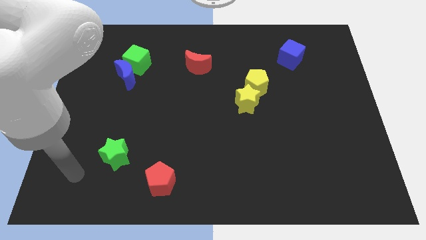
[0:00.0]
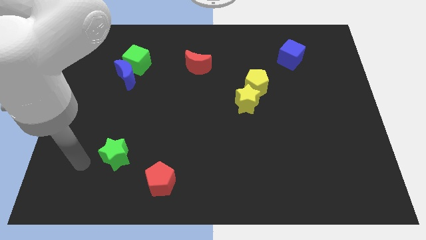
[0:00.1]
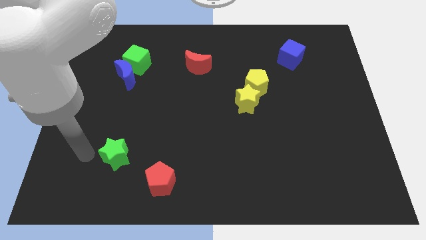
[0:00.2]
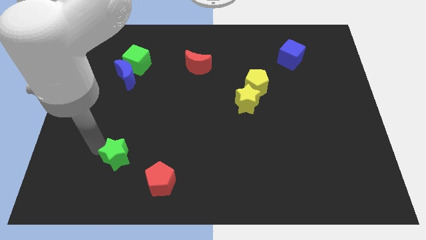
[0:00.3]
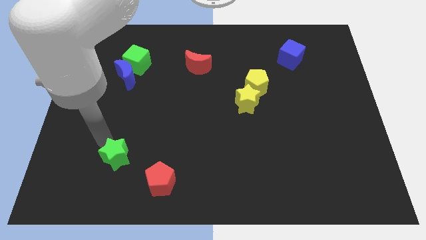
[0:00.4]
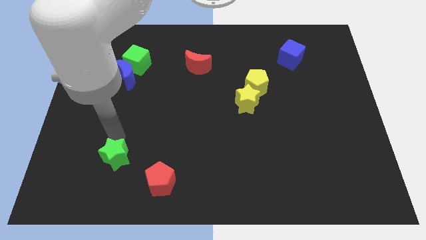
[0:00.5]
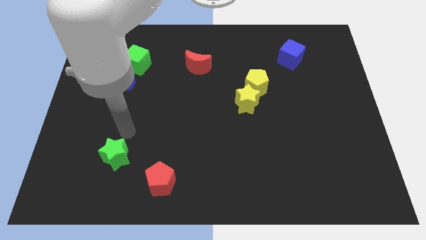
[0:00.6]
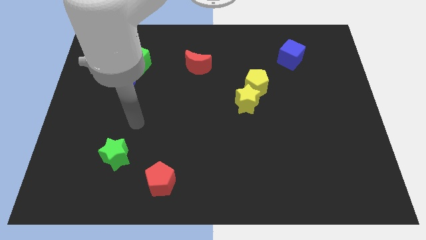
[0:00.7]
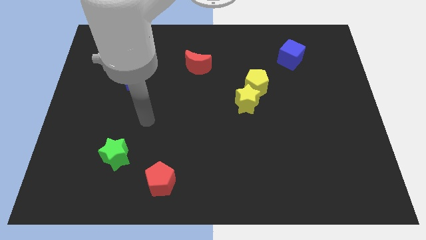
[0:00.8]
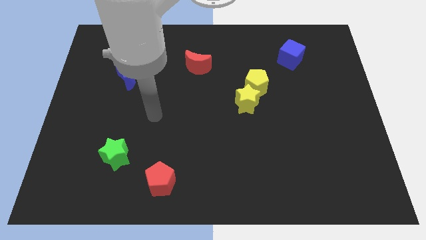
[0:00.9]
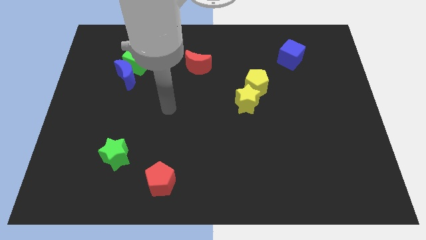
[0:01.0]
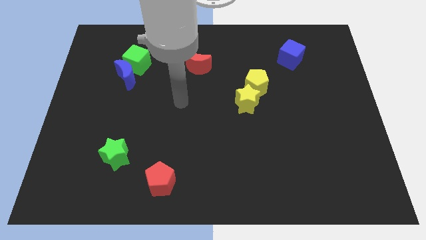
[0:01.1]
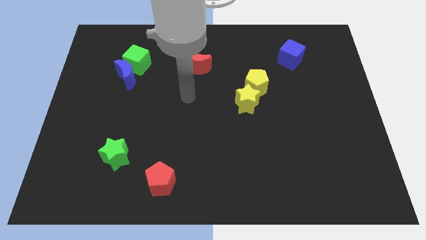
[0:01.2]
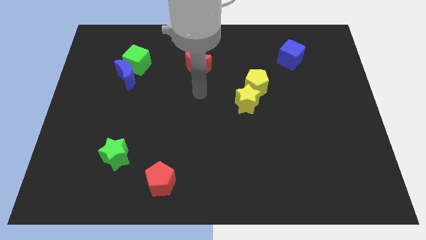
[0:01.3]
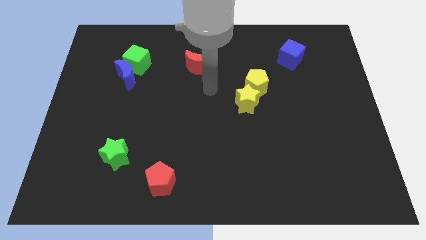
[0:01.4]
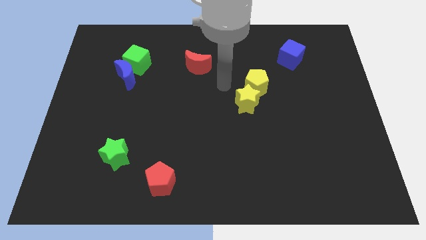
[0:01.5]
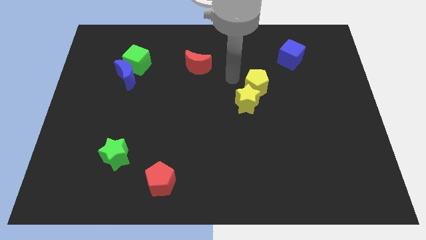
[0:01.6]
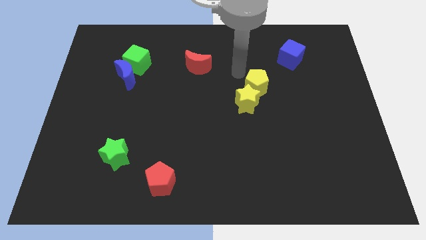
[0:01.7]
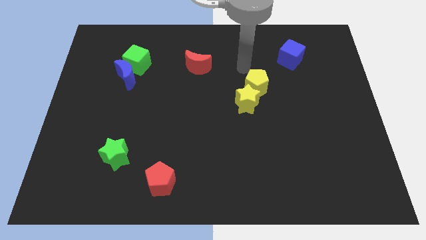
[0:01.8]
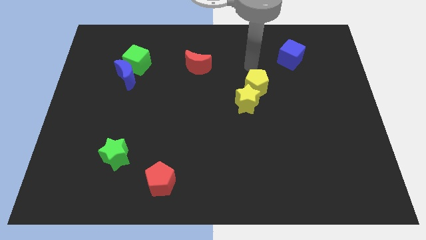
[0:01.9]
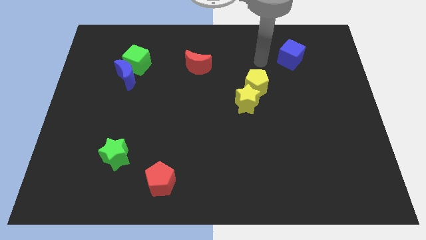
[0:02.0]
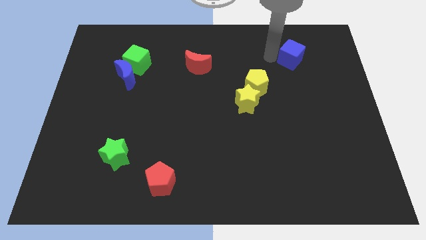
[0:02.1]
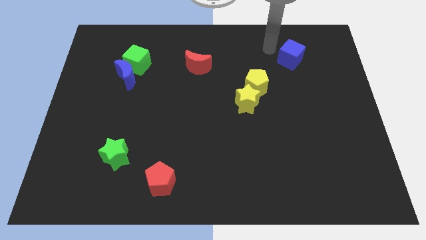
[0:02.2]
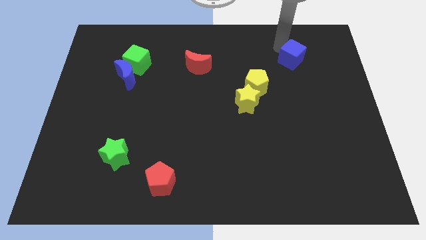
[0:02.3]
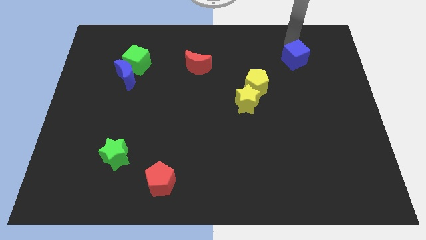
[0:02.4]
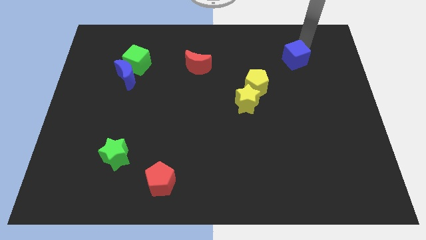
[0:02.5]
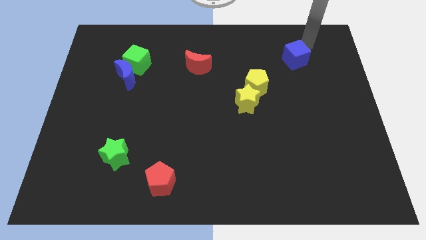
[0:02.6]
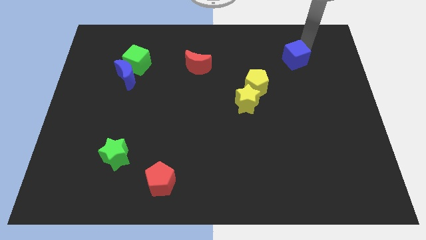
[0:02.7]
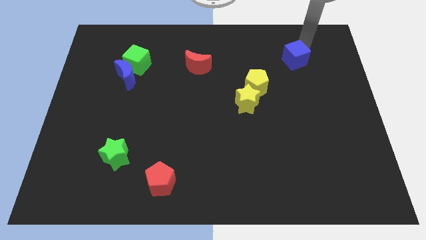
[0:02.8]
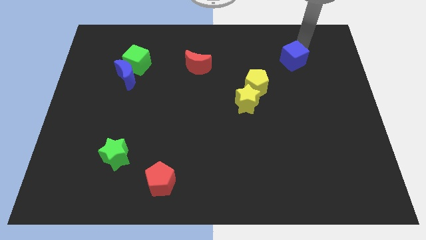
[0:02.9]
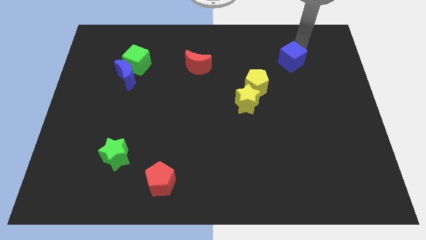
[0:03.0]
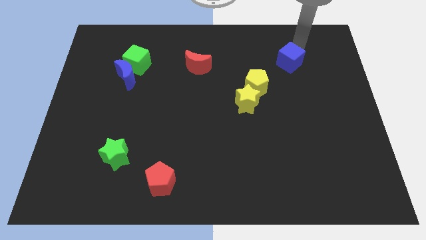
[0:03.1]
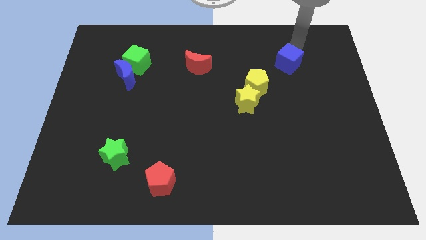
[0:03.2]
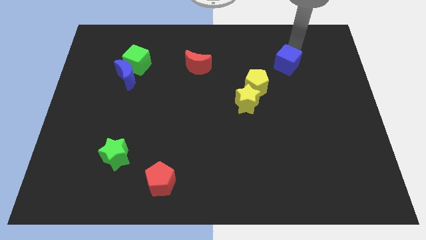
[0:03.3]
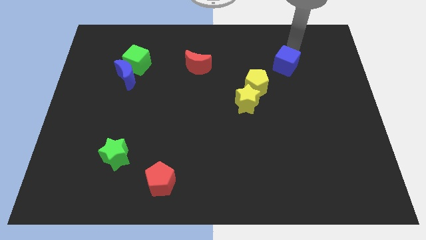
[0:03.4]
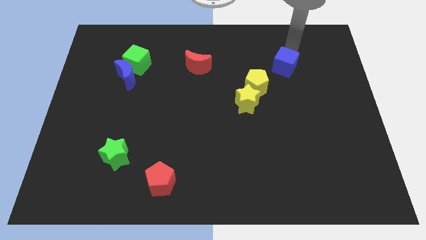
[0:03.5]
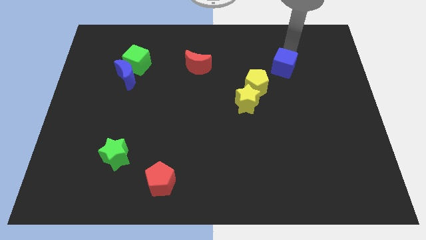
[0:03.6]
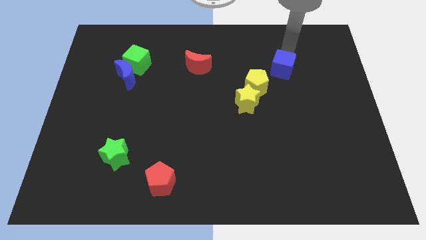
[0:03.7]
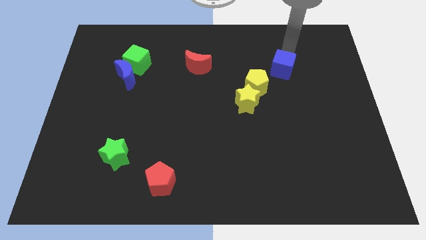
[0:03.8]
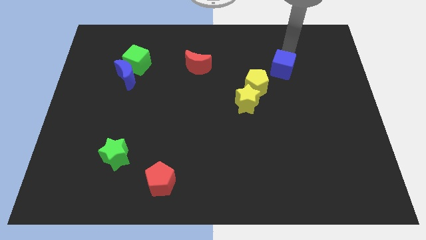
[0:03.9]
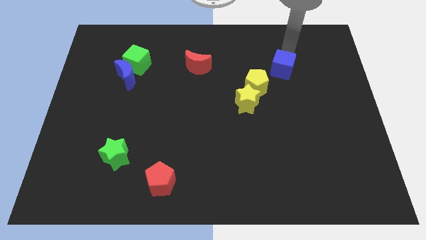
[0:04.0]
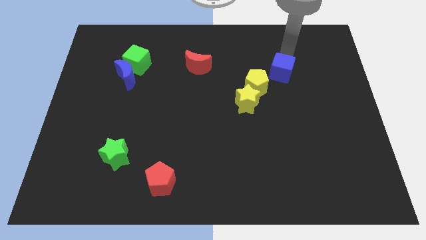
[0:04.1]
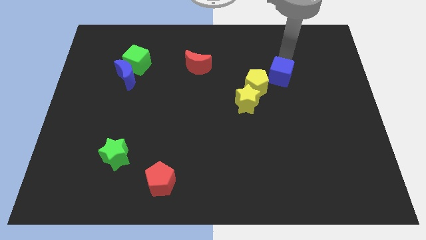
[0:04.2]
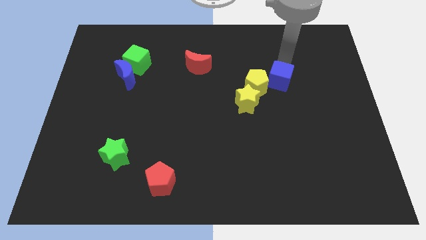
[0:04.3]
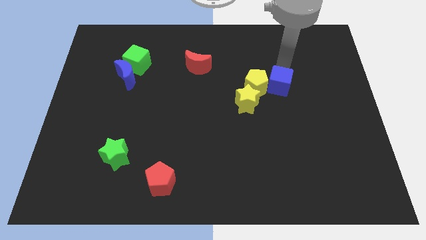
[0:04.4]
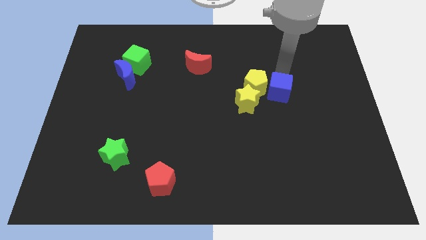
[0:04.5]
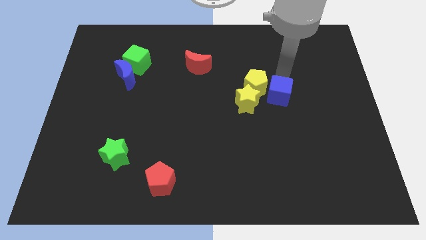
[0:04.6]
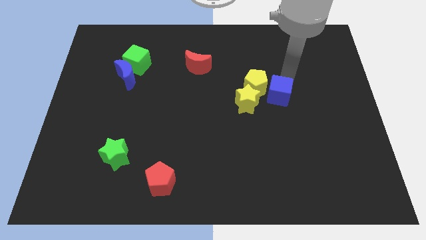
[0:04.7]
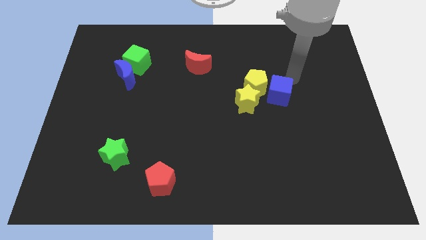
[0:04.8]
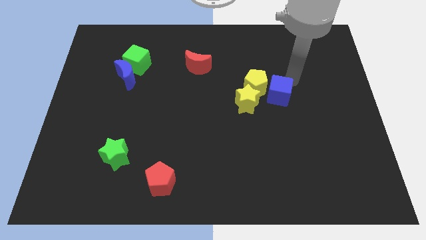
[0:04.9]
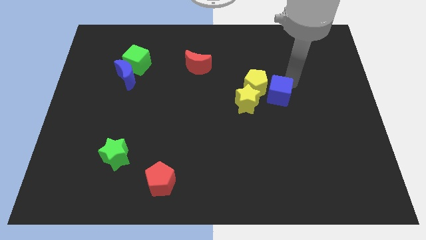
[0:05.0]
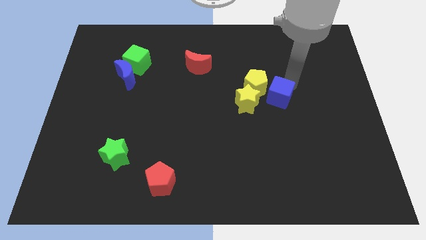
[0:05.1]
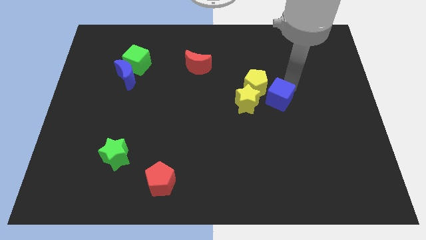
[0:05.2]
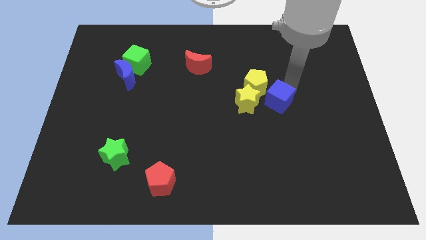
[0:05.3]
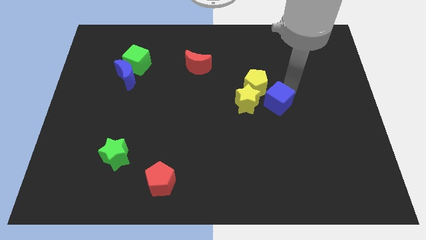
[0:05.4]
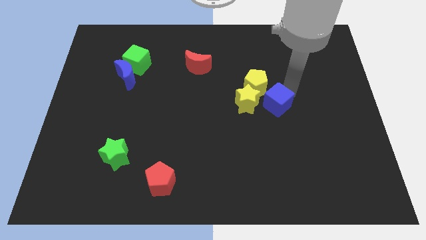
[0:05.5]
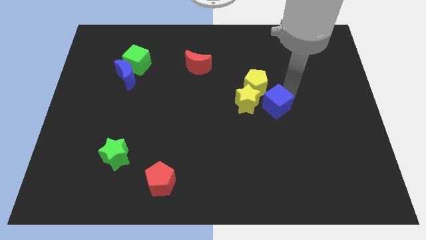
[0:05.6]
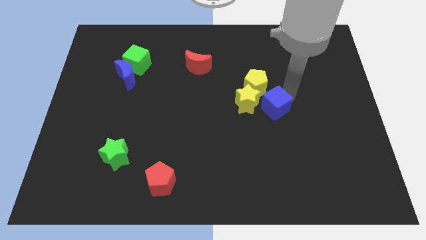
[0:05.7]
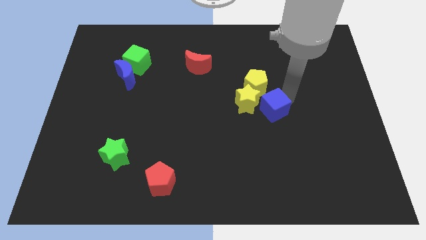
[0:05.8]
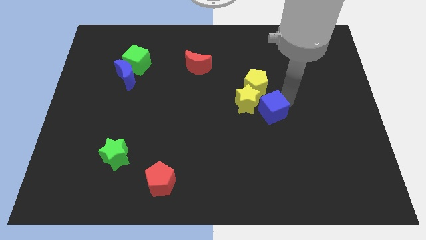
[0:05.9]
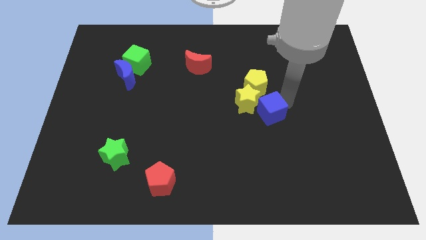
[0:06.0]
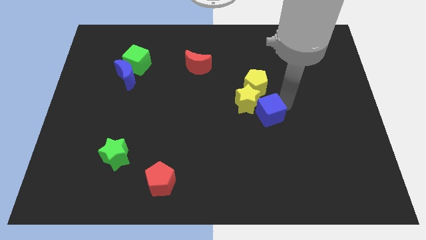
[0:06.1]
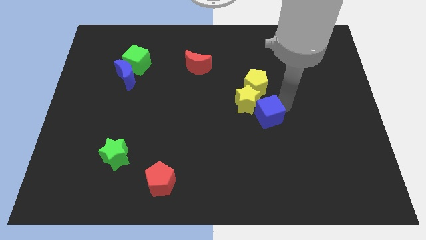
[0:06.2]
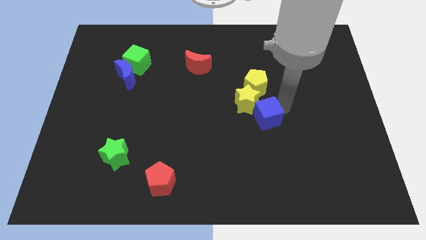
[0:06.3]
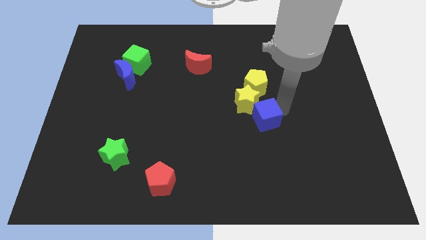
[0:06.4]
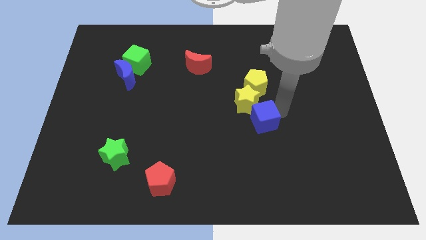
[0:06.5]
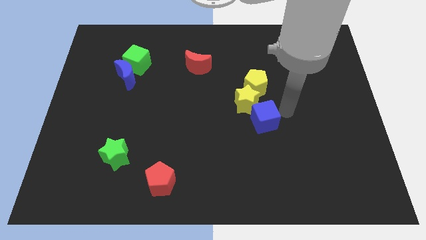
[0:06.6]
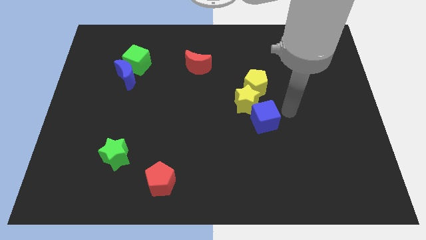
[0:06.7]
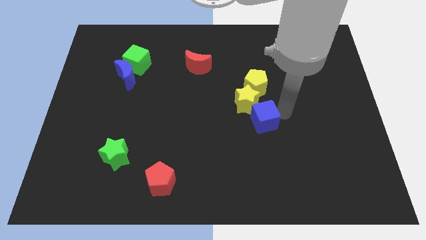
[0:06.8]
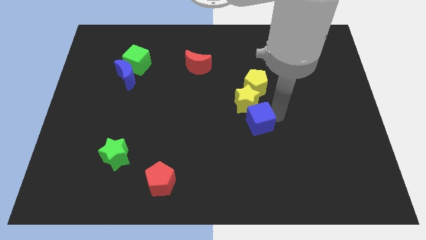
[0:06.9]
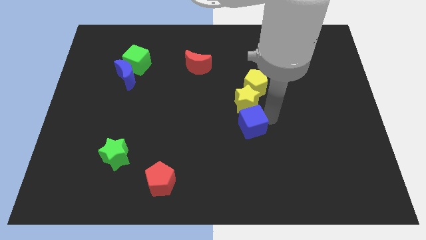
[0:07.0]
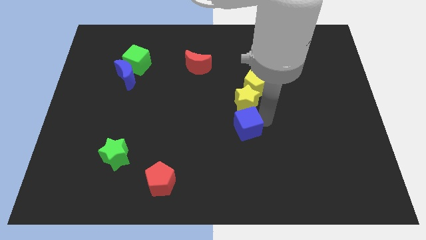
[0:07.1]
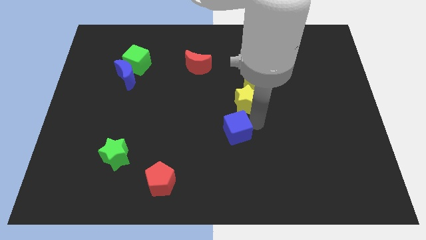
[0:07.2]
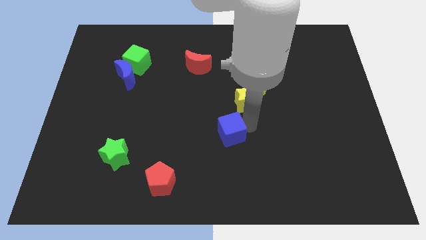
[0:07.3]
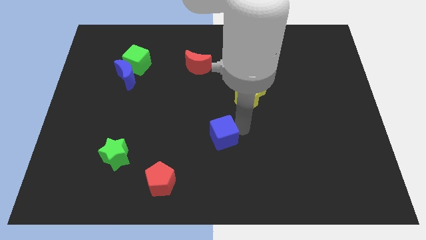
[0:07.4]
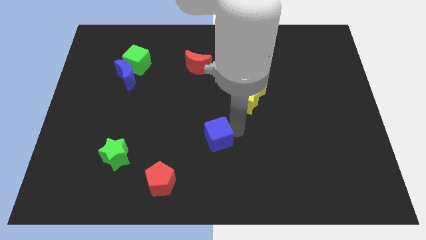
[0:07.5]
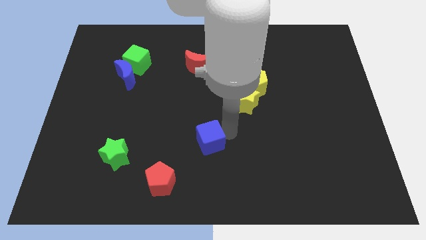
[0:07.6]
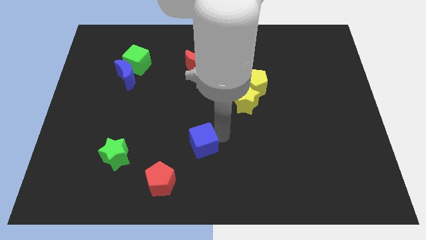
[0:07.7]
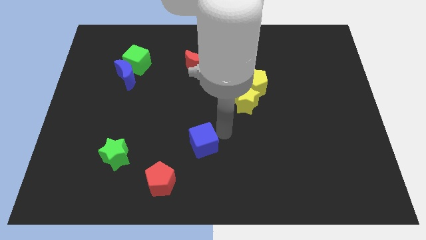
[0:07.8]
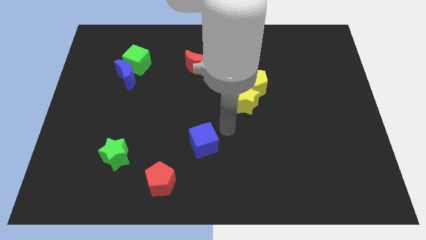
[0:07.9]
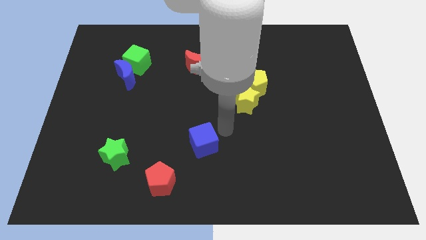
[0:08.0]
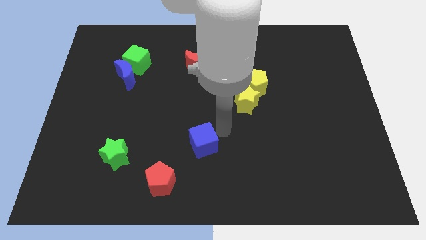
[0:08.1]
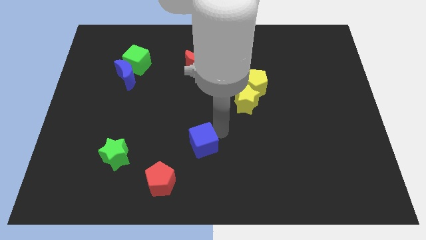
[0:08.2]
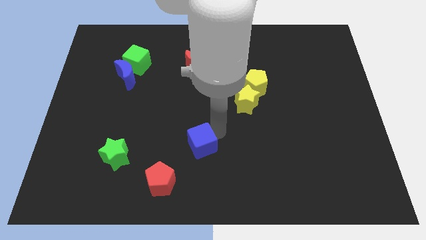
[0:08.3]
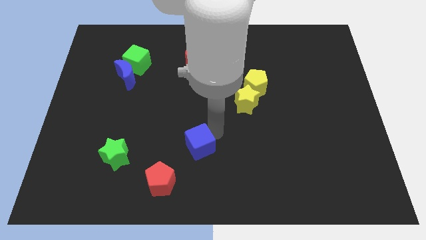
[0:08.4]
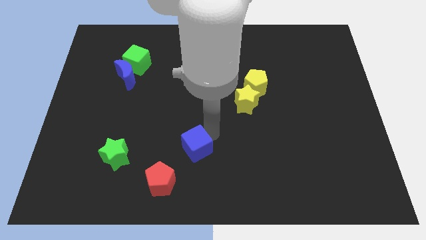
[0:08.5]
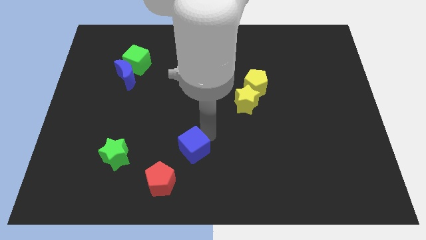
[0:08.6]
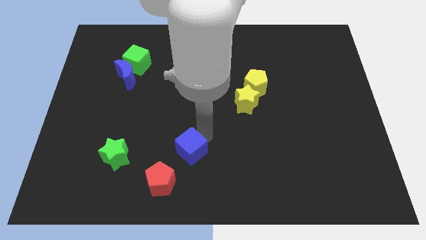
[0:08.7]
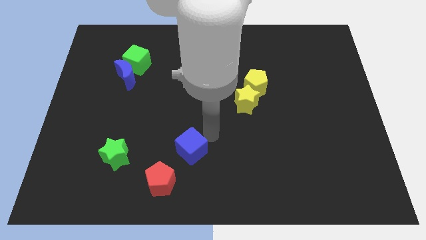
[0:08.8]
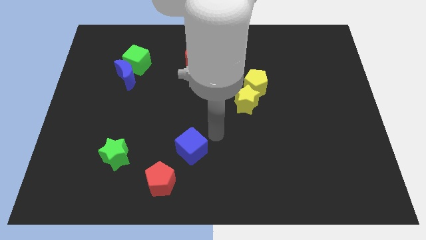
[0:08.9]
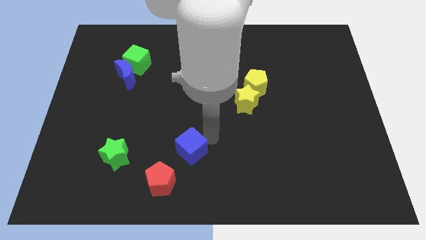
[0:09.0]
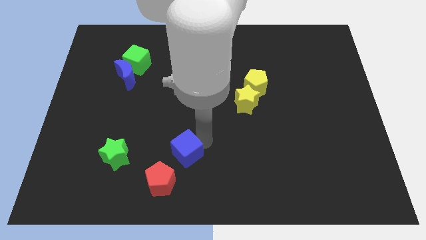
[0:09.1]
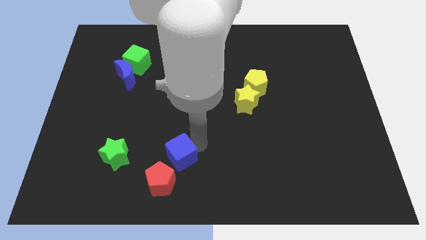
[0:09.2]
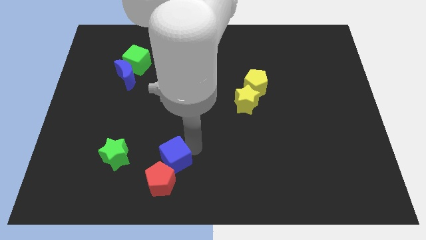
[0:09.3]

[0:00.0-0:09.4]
push the blue cube towards the red pentagon
